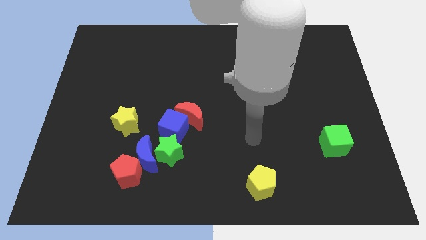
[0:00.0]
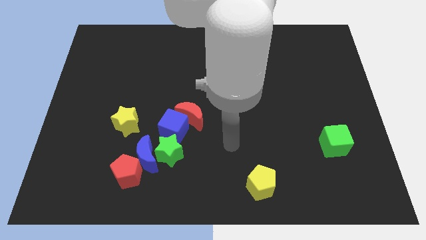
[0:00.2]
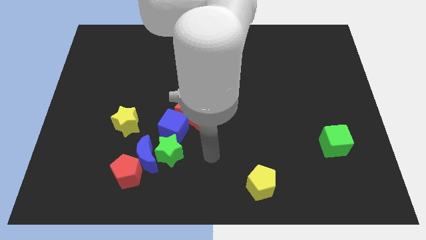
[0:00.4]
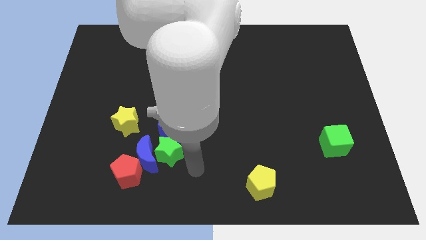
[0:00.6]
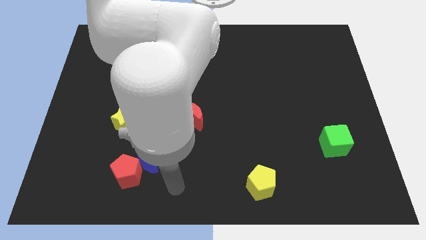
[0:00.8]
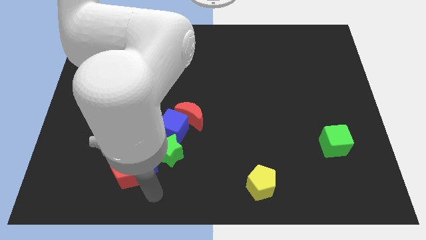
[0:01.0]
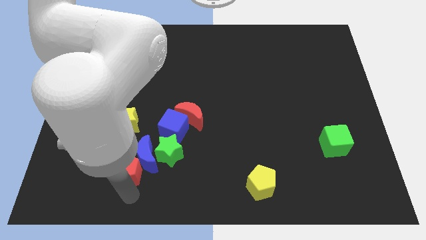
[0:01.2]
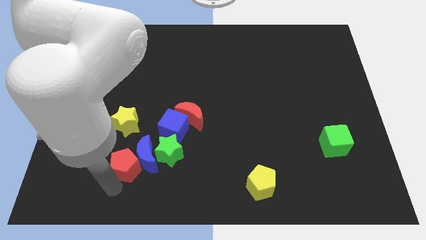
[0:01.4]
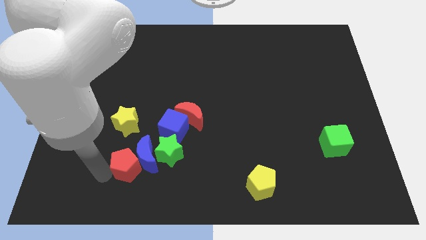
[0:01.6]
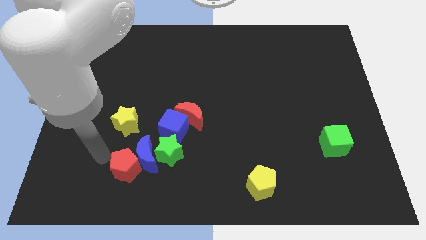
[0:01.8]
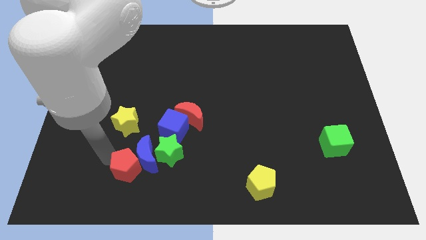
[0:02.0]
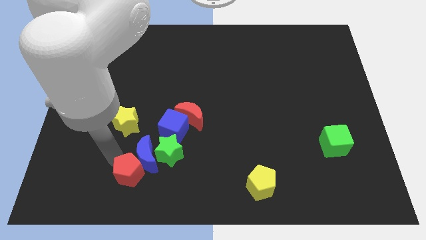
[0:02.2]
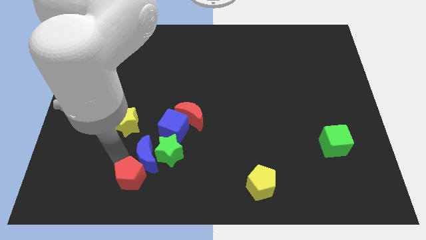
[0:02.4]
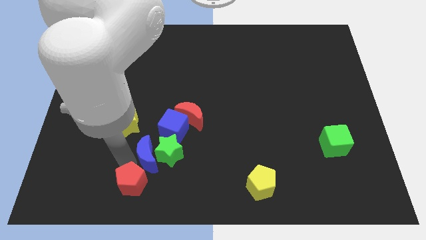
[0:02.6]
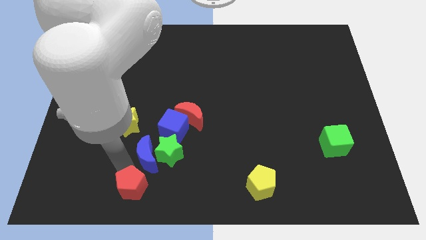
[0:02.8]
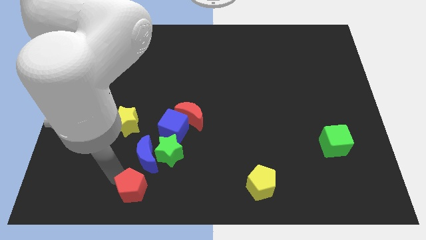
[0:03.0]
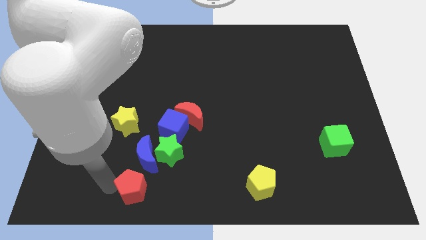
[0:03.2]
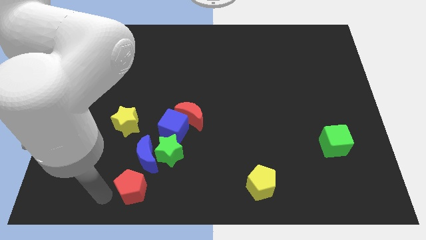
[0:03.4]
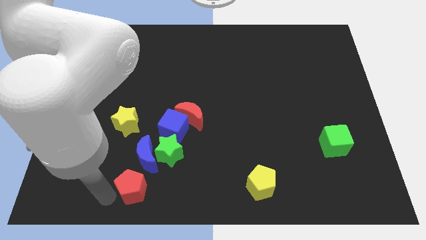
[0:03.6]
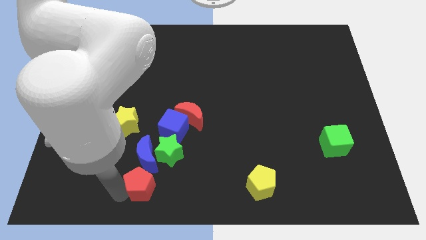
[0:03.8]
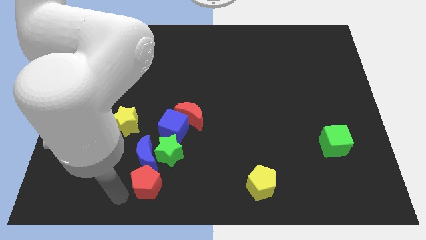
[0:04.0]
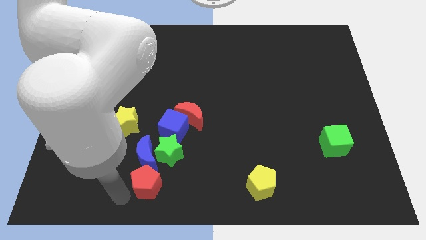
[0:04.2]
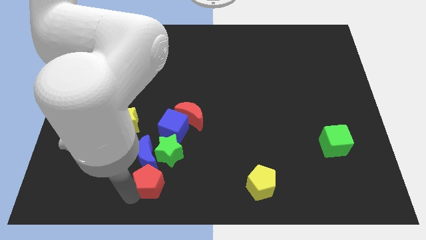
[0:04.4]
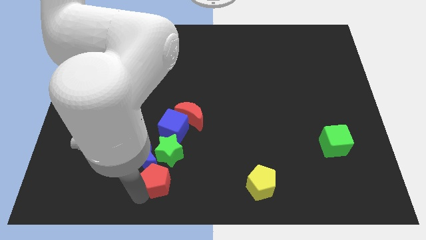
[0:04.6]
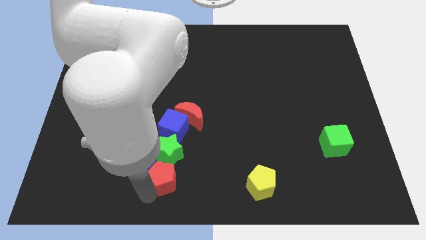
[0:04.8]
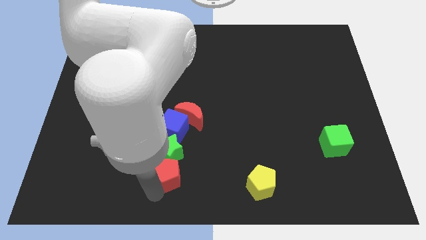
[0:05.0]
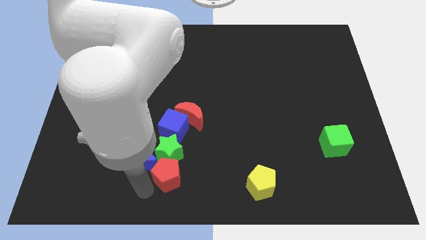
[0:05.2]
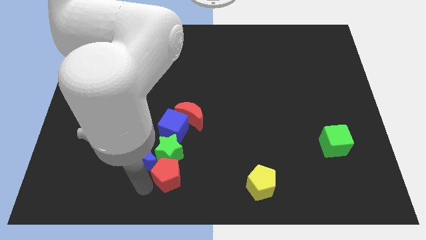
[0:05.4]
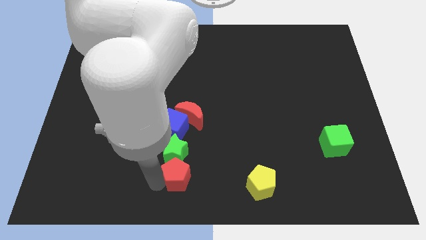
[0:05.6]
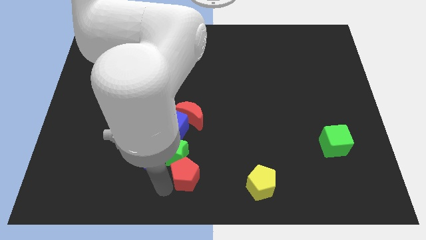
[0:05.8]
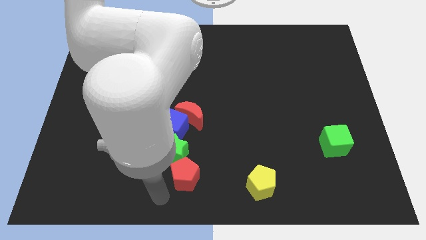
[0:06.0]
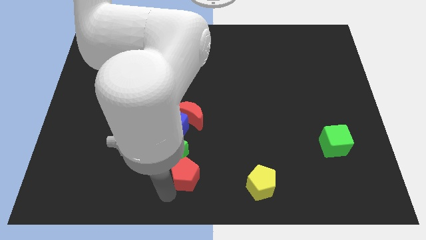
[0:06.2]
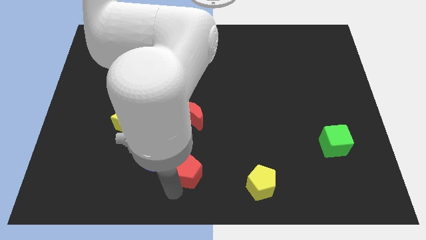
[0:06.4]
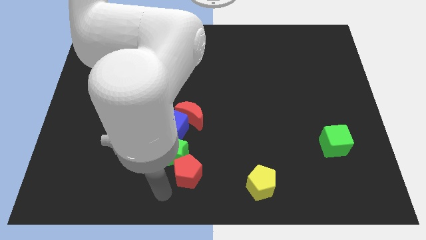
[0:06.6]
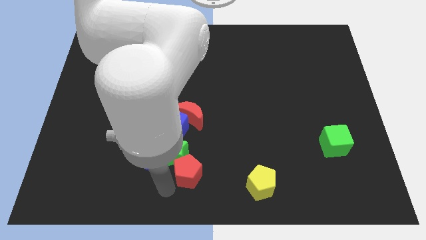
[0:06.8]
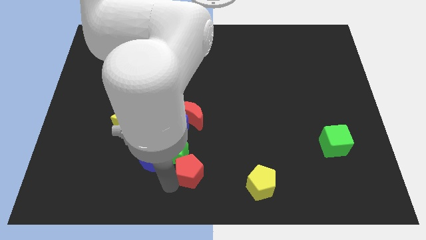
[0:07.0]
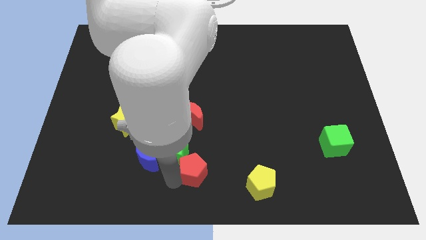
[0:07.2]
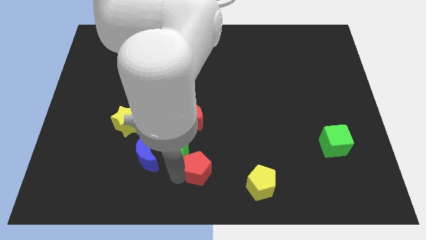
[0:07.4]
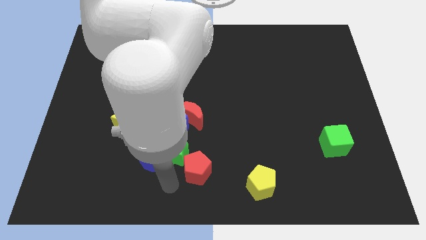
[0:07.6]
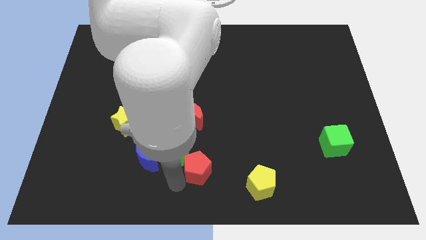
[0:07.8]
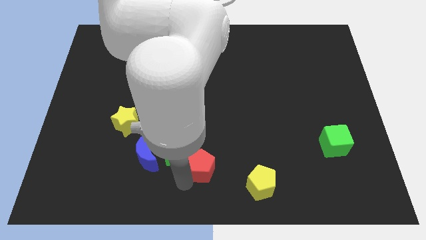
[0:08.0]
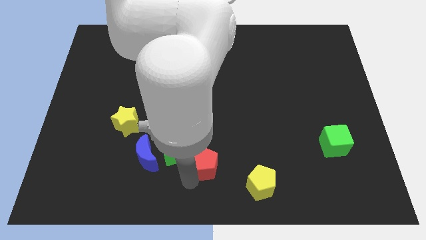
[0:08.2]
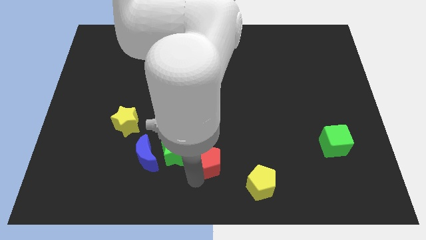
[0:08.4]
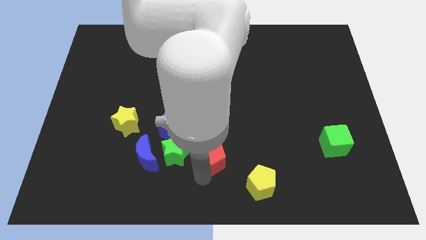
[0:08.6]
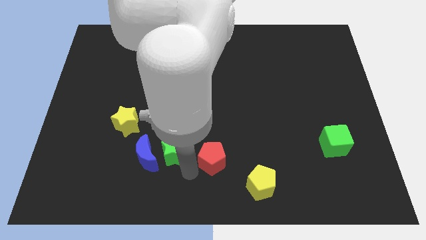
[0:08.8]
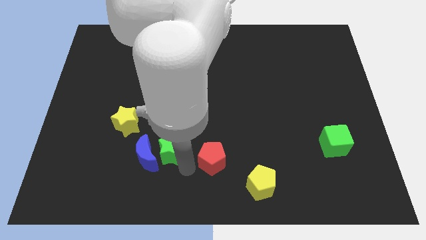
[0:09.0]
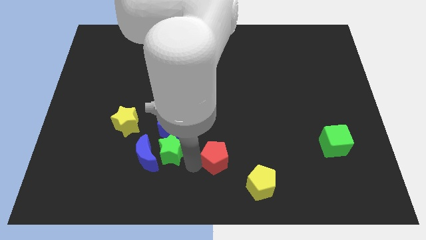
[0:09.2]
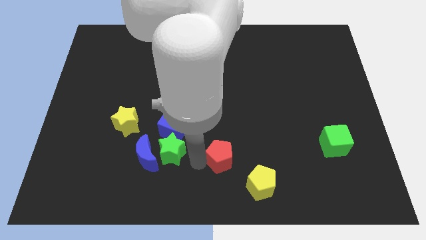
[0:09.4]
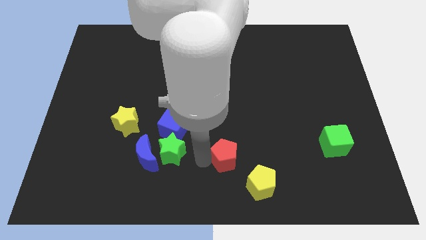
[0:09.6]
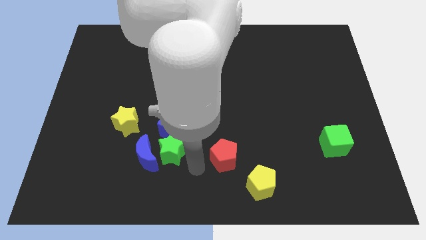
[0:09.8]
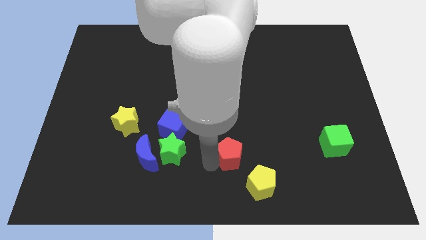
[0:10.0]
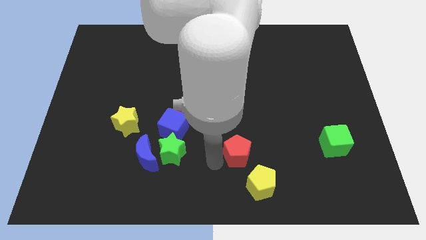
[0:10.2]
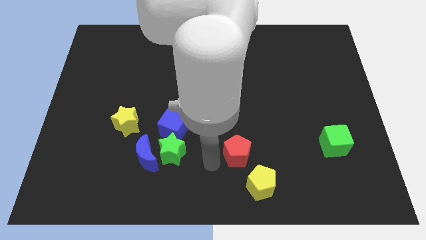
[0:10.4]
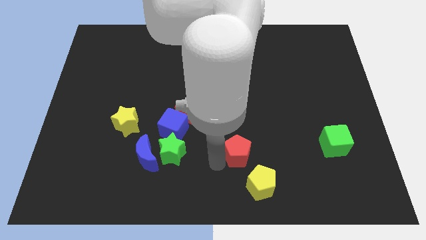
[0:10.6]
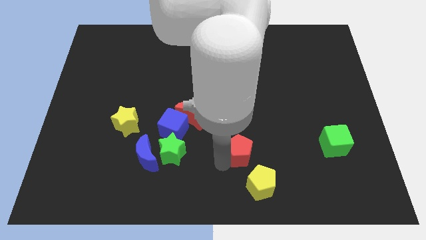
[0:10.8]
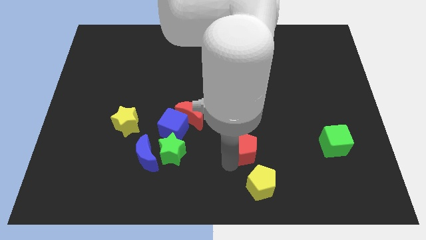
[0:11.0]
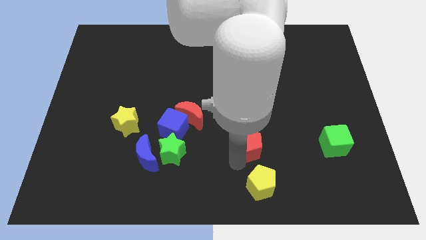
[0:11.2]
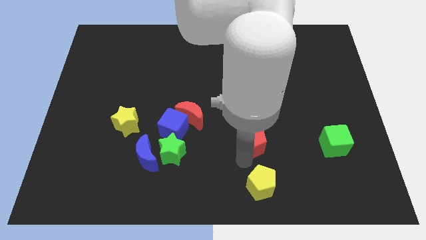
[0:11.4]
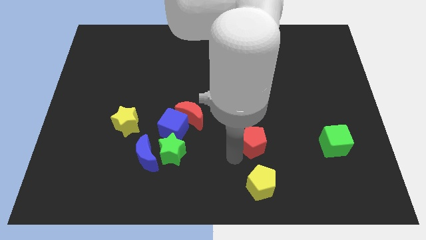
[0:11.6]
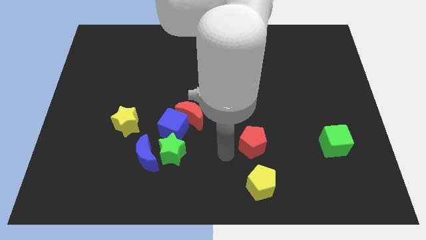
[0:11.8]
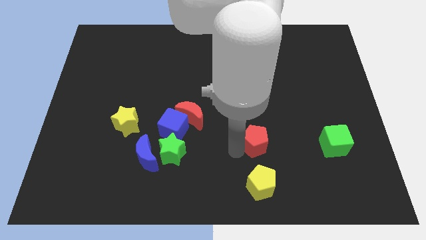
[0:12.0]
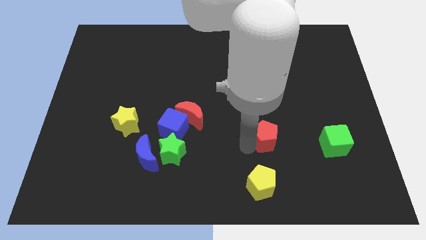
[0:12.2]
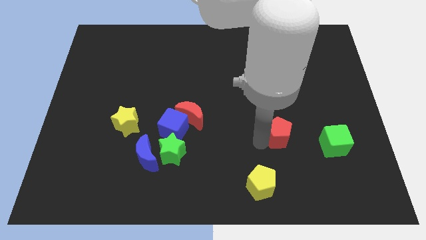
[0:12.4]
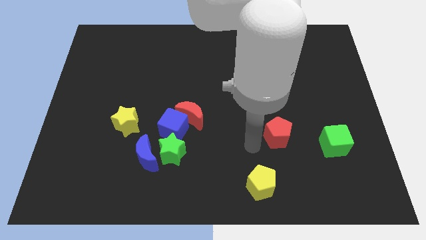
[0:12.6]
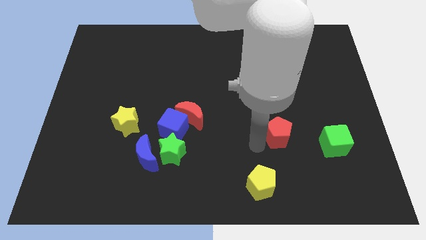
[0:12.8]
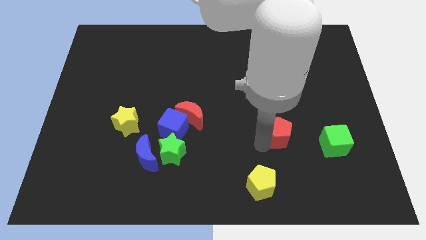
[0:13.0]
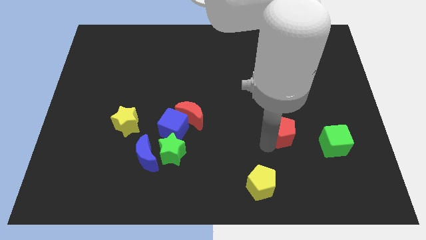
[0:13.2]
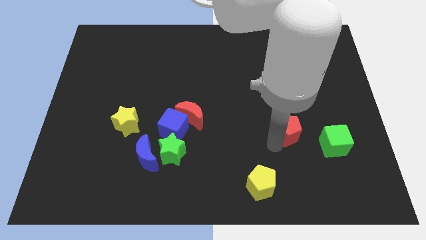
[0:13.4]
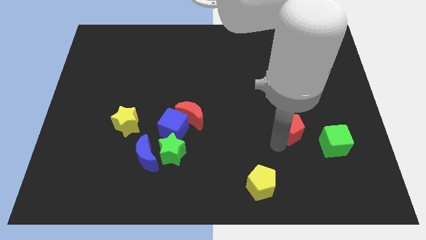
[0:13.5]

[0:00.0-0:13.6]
push the red pentagon to the top left side of the green cube
